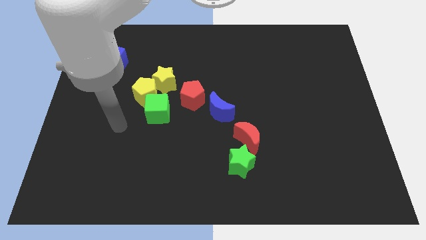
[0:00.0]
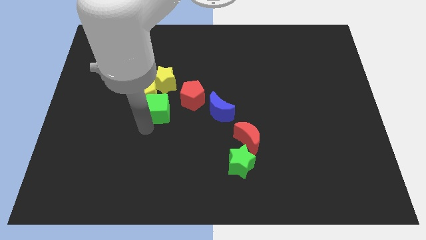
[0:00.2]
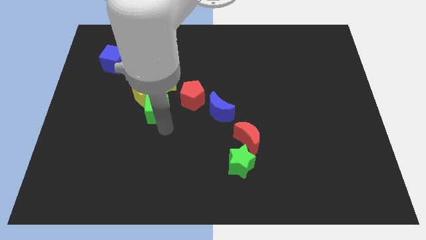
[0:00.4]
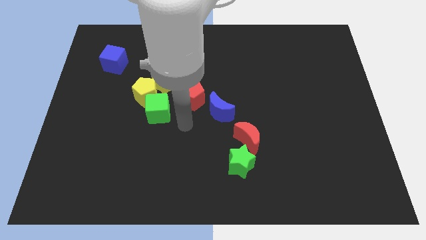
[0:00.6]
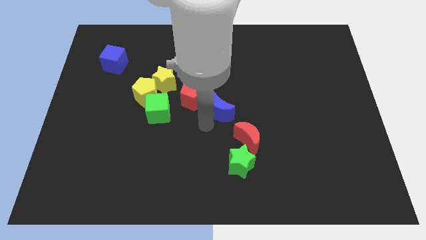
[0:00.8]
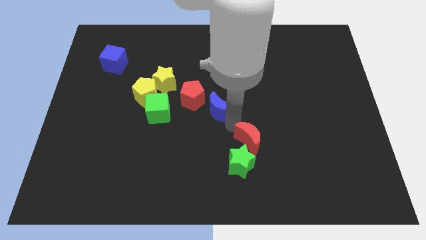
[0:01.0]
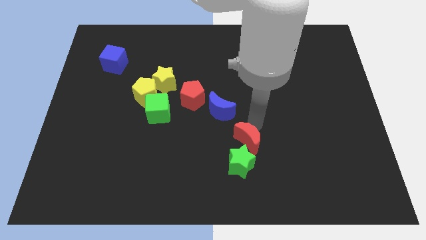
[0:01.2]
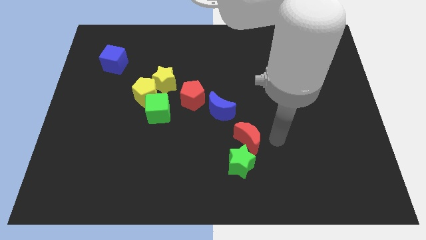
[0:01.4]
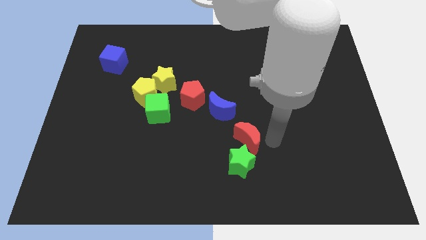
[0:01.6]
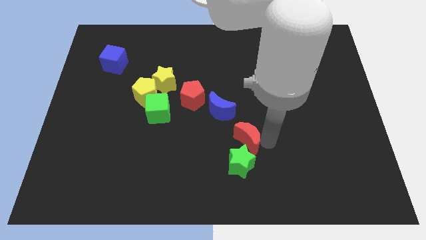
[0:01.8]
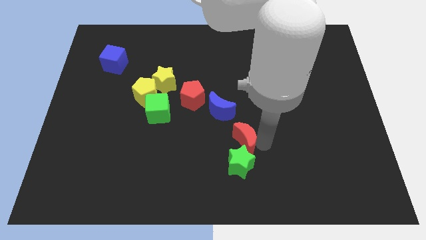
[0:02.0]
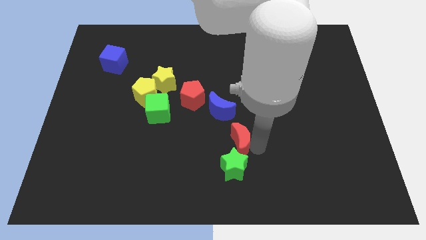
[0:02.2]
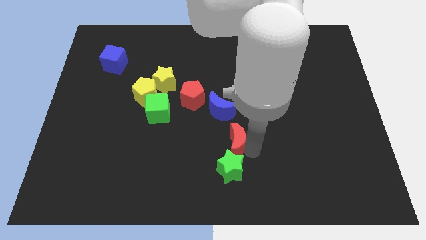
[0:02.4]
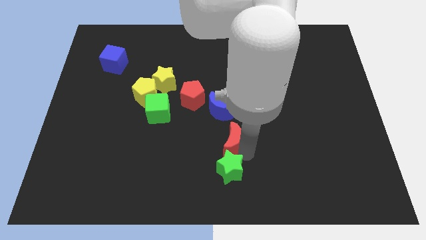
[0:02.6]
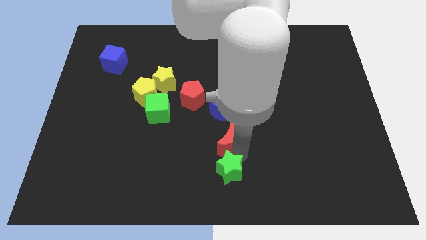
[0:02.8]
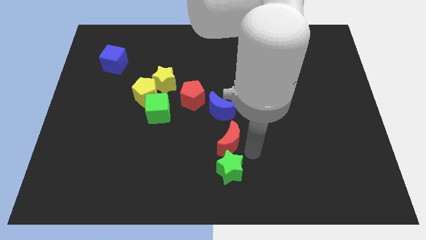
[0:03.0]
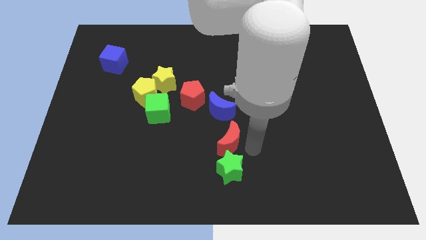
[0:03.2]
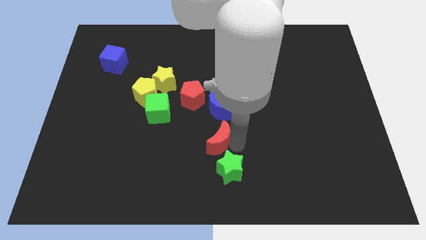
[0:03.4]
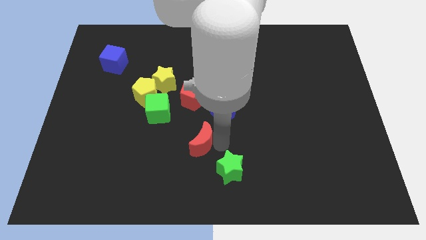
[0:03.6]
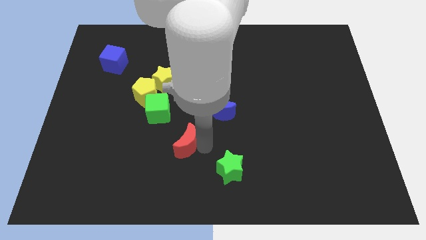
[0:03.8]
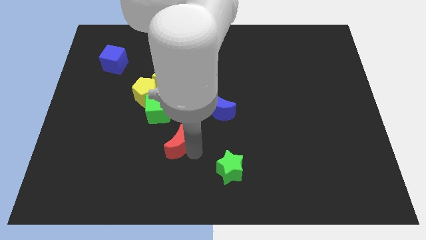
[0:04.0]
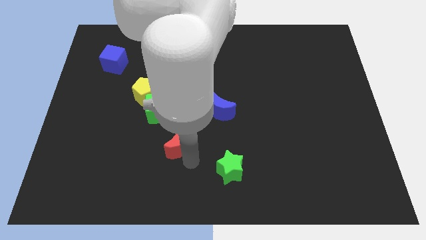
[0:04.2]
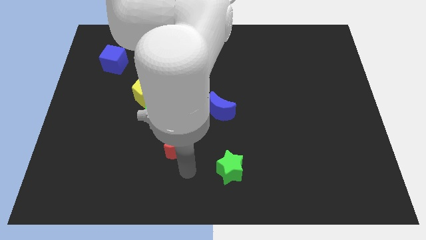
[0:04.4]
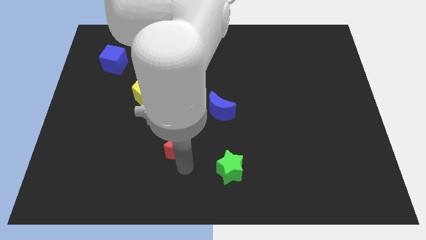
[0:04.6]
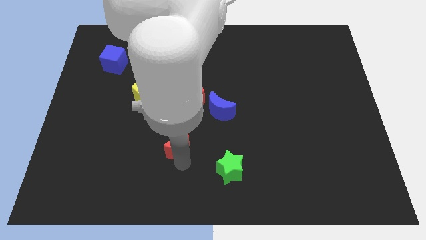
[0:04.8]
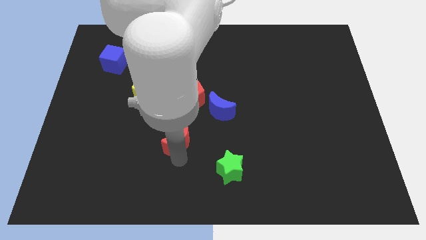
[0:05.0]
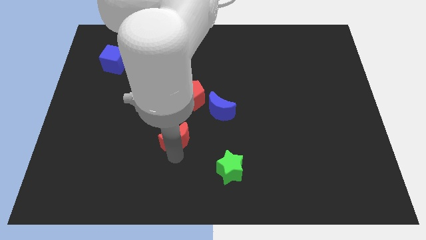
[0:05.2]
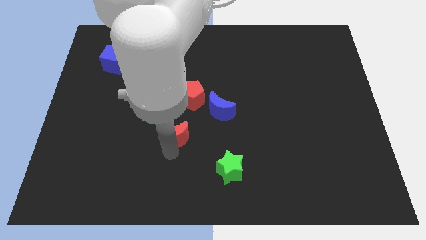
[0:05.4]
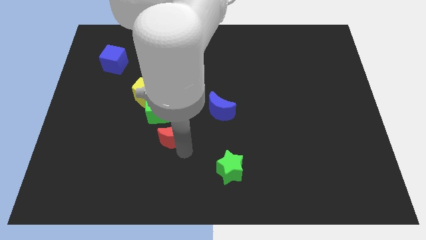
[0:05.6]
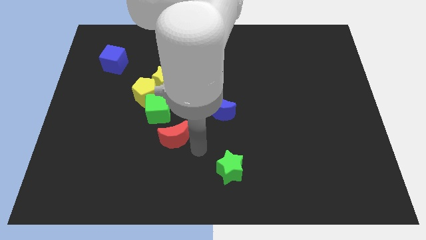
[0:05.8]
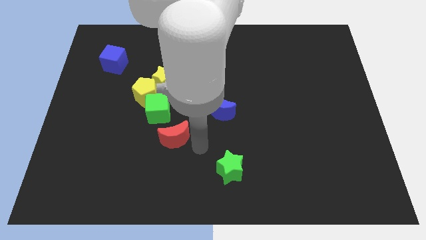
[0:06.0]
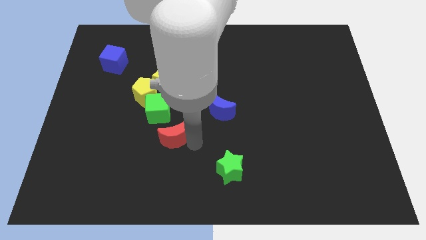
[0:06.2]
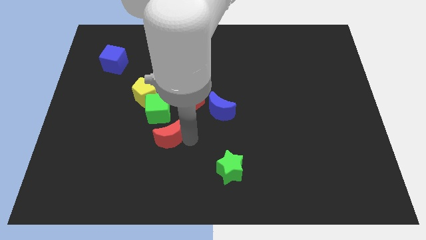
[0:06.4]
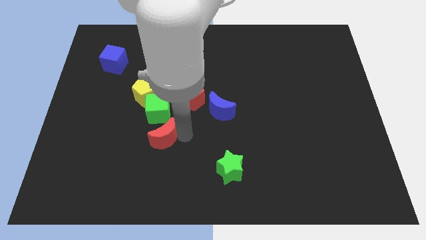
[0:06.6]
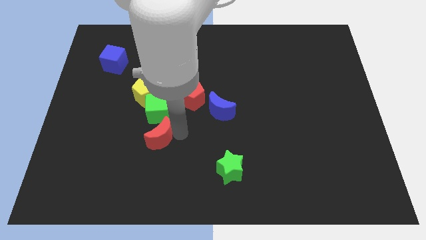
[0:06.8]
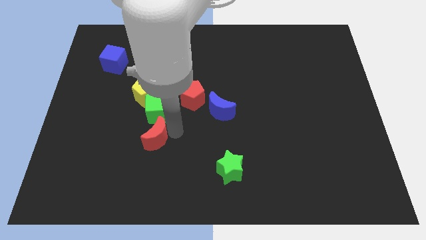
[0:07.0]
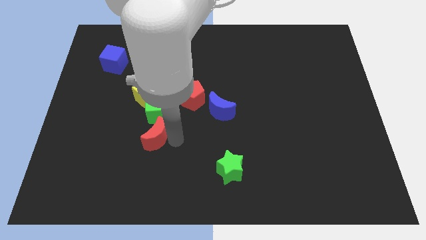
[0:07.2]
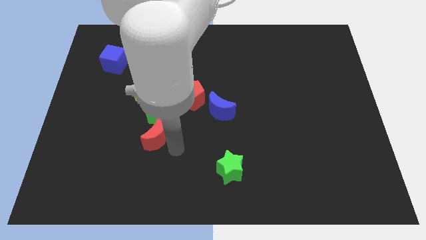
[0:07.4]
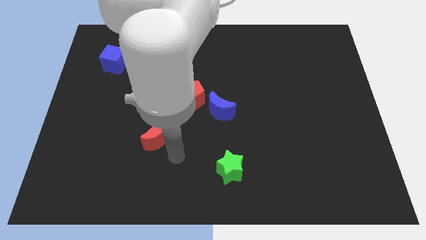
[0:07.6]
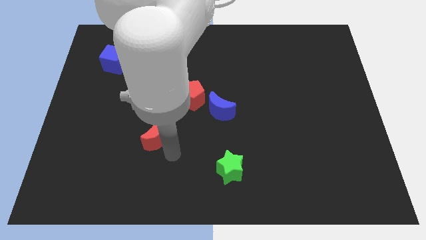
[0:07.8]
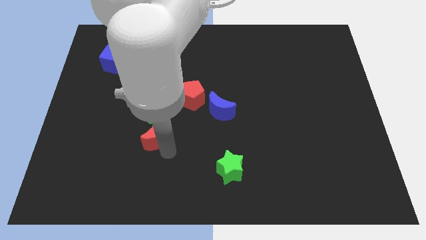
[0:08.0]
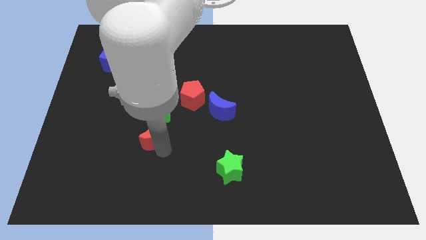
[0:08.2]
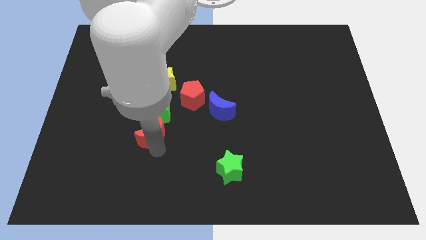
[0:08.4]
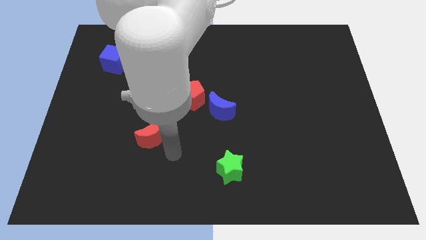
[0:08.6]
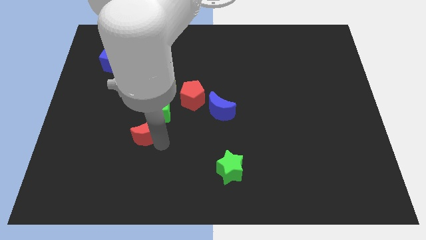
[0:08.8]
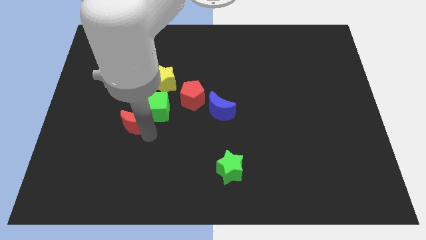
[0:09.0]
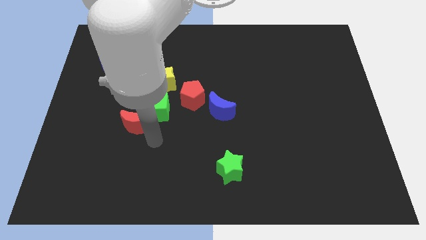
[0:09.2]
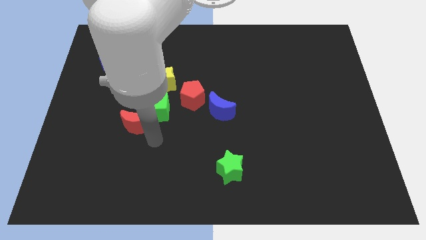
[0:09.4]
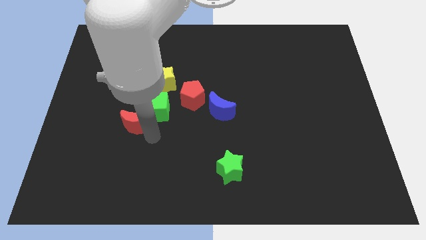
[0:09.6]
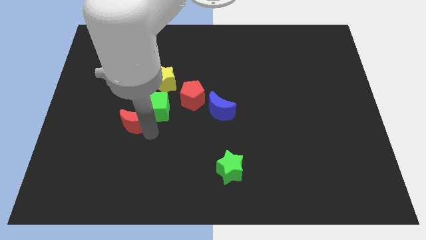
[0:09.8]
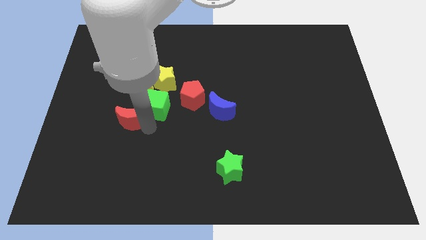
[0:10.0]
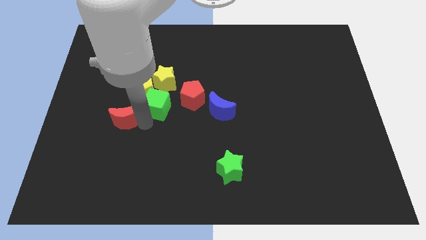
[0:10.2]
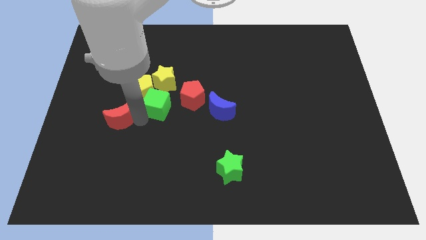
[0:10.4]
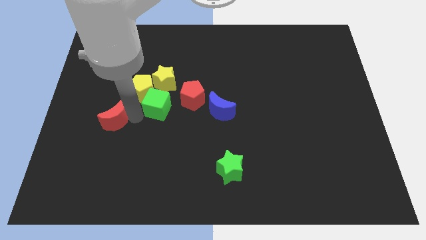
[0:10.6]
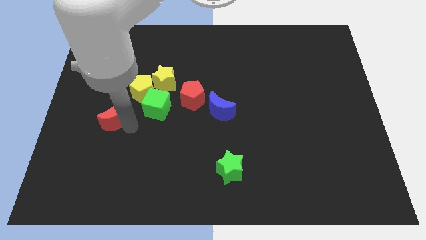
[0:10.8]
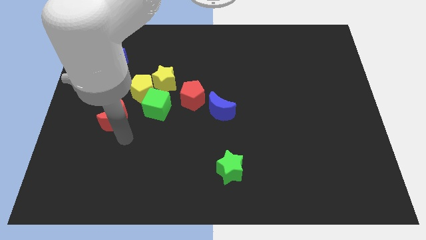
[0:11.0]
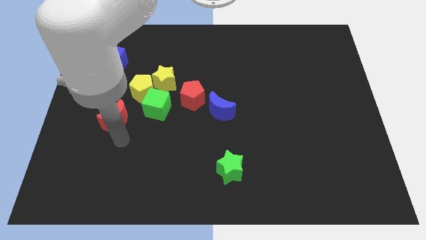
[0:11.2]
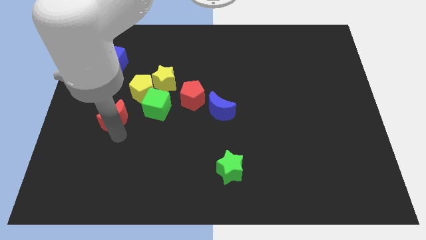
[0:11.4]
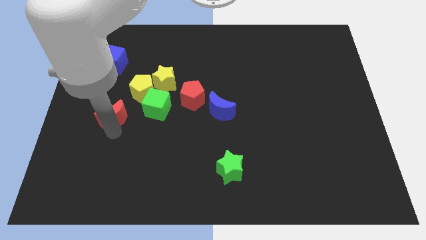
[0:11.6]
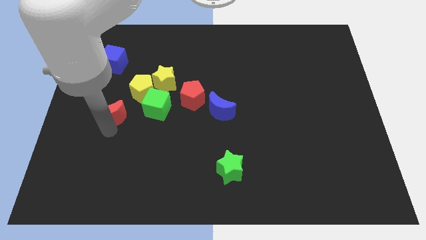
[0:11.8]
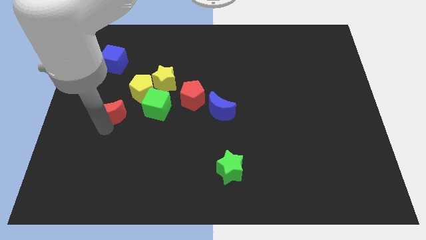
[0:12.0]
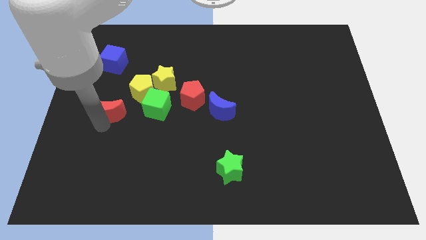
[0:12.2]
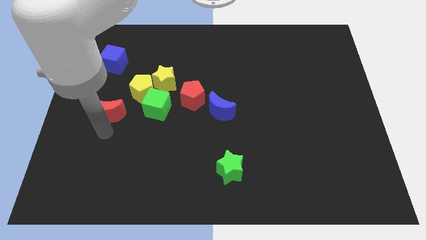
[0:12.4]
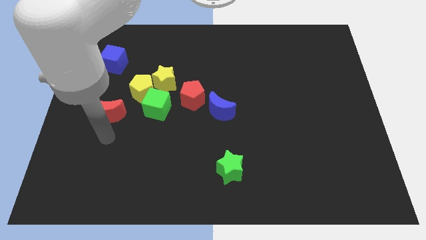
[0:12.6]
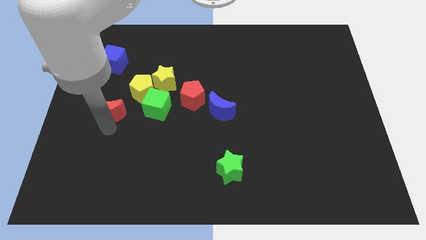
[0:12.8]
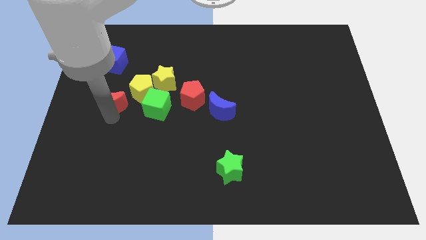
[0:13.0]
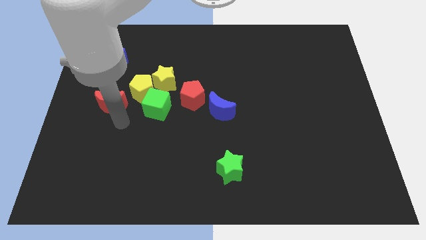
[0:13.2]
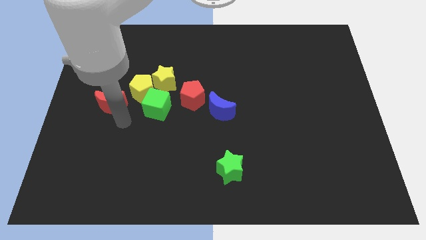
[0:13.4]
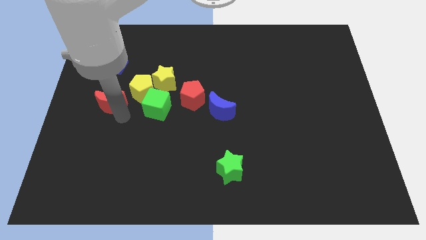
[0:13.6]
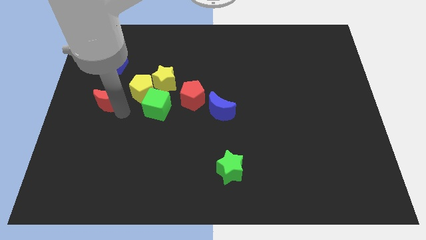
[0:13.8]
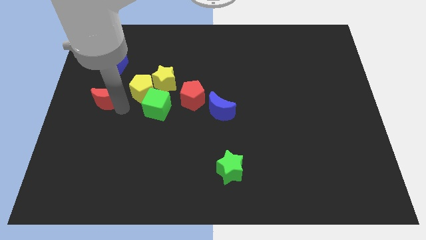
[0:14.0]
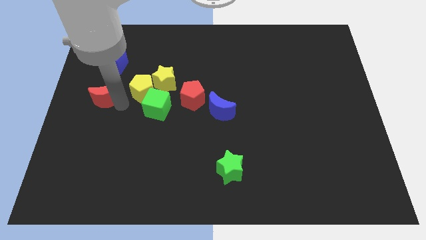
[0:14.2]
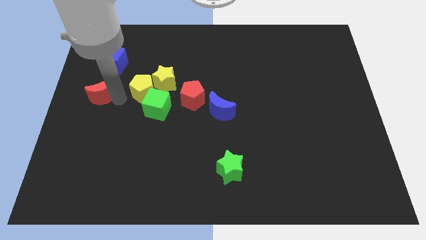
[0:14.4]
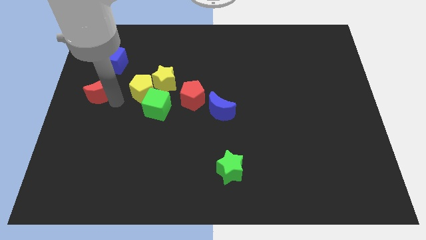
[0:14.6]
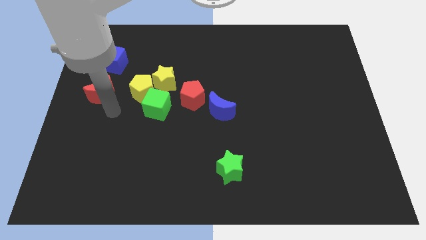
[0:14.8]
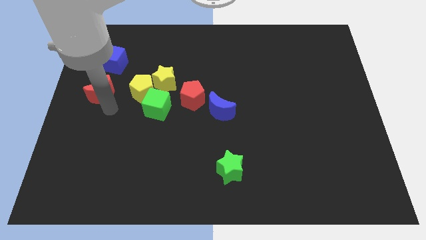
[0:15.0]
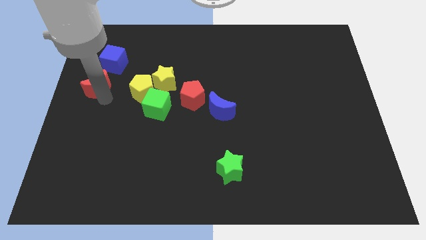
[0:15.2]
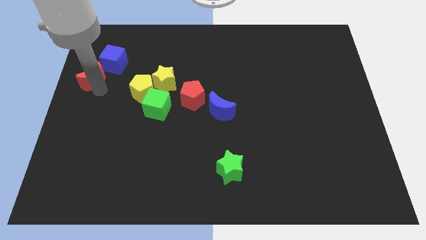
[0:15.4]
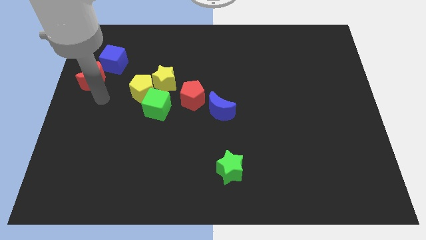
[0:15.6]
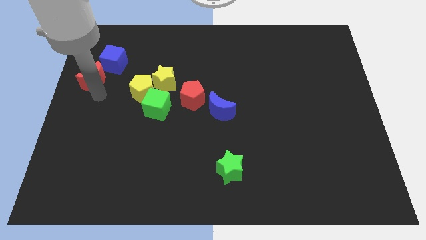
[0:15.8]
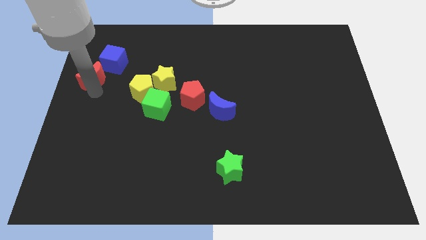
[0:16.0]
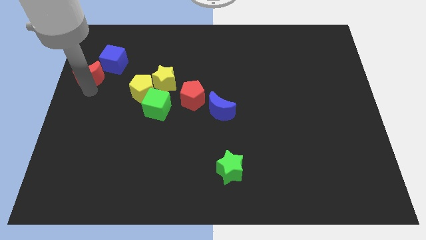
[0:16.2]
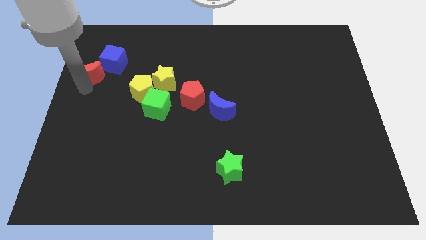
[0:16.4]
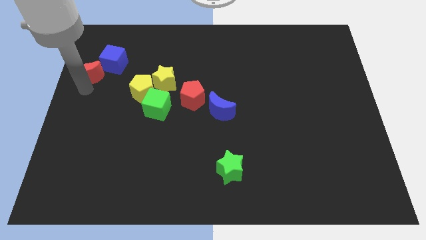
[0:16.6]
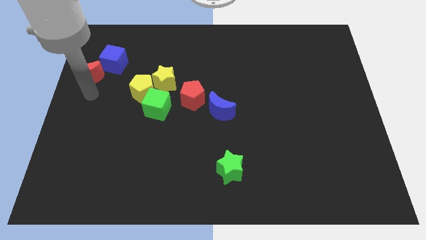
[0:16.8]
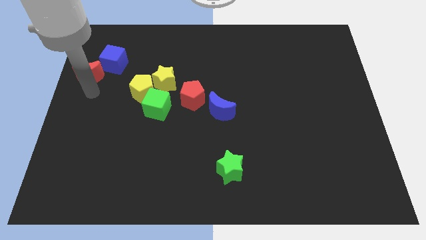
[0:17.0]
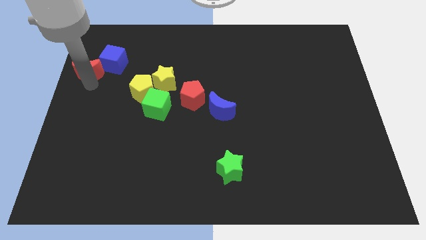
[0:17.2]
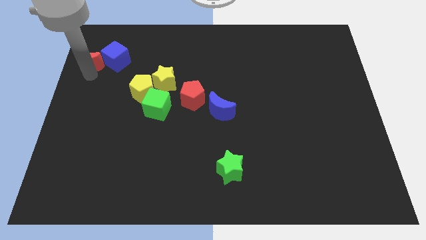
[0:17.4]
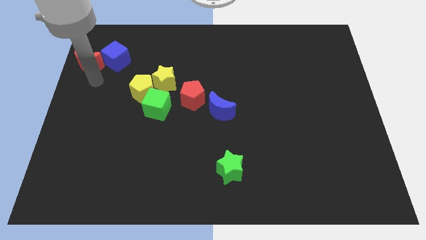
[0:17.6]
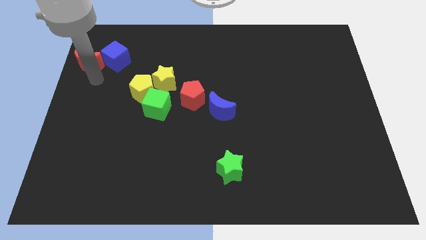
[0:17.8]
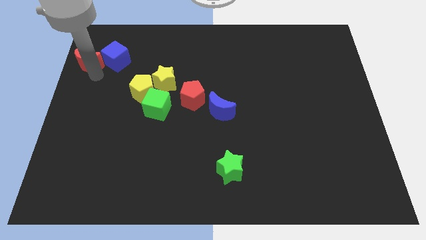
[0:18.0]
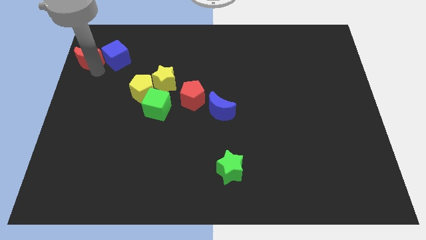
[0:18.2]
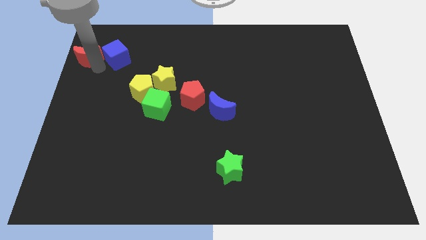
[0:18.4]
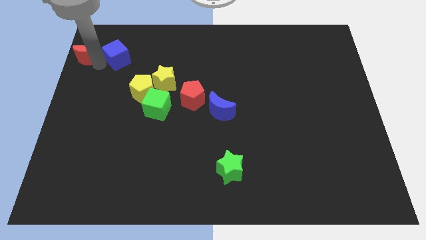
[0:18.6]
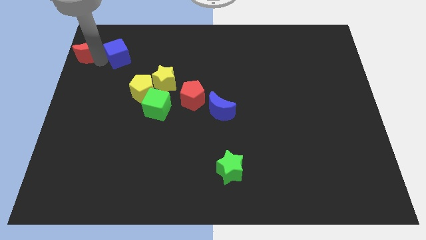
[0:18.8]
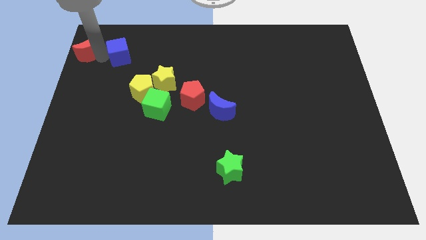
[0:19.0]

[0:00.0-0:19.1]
slide the red moon to the top left
